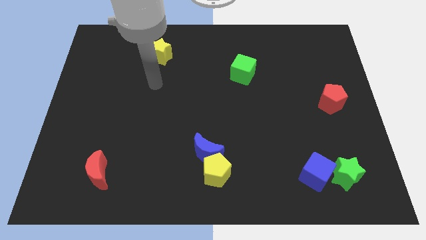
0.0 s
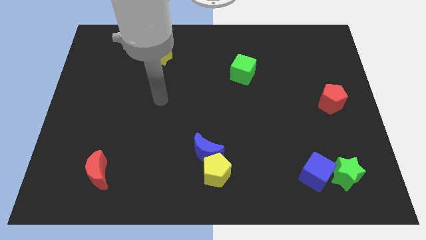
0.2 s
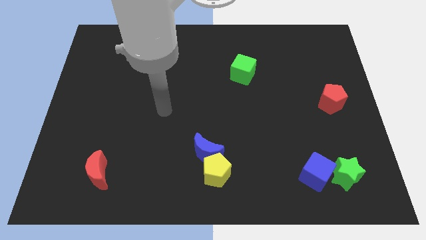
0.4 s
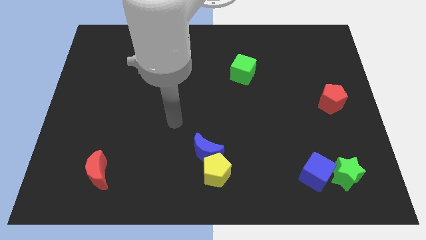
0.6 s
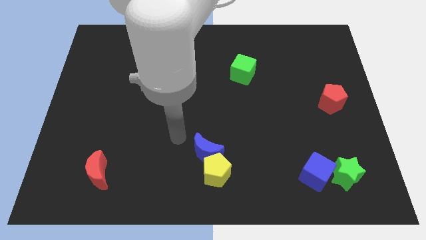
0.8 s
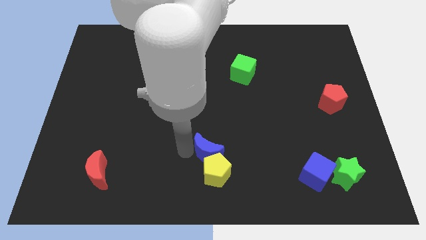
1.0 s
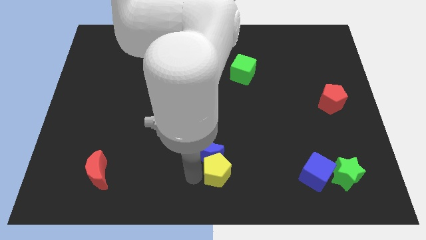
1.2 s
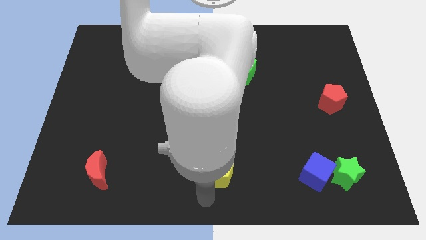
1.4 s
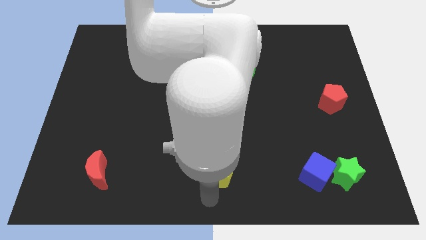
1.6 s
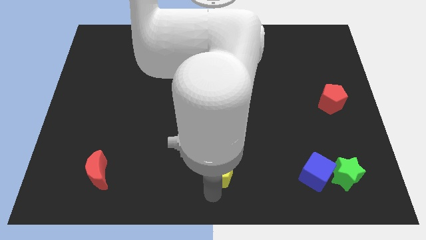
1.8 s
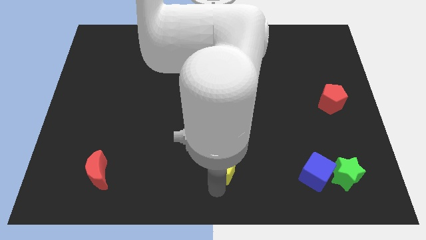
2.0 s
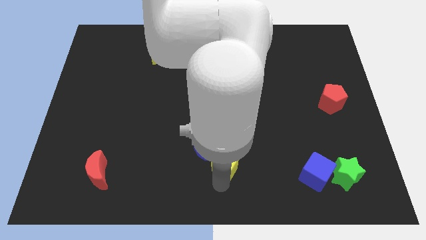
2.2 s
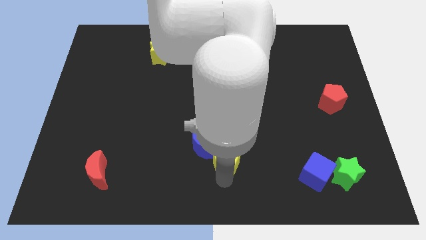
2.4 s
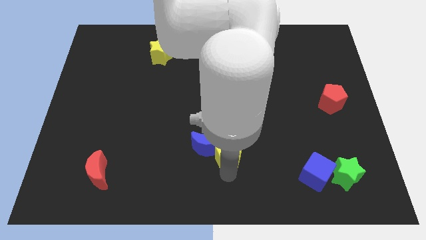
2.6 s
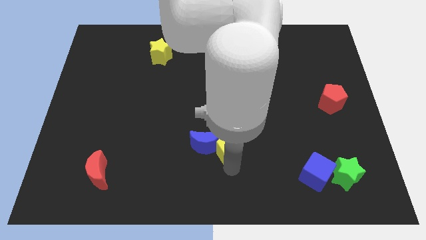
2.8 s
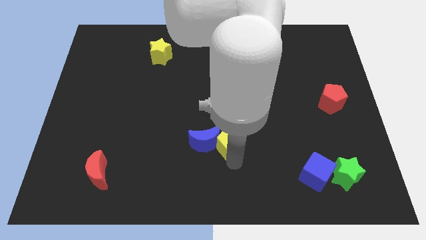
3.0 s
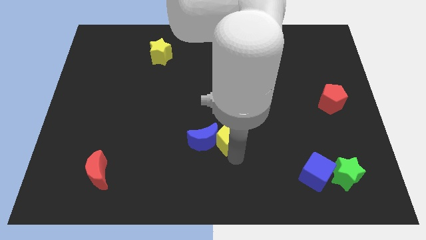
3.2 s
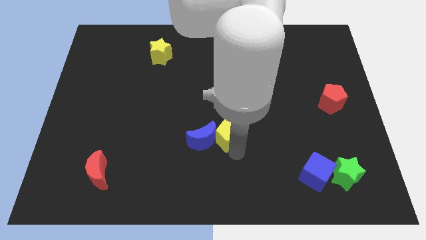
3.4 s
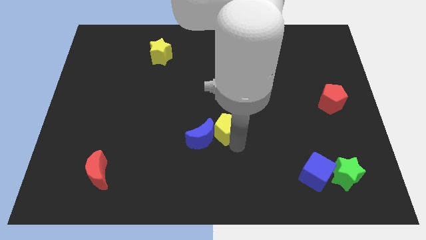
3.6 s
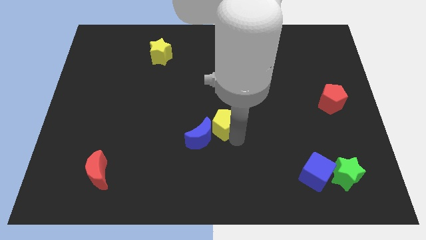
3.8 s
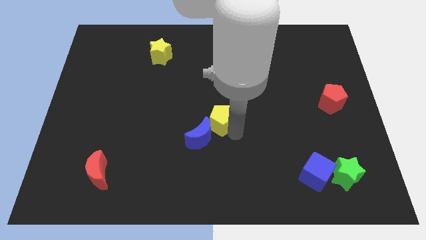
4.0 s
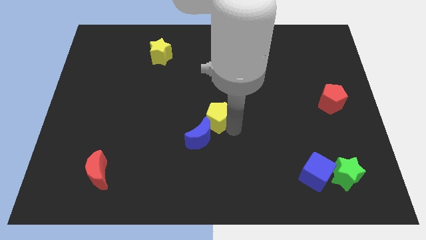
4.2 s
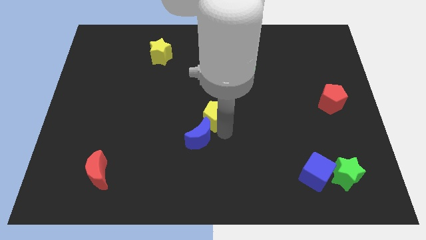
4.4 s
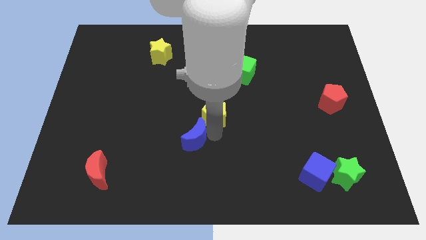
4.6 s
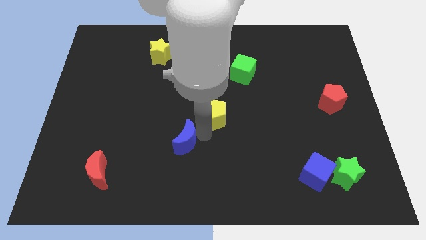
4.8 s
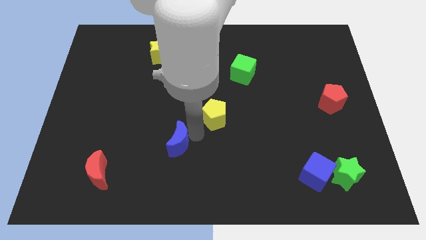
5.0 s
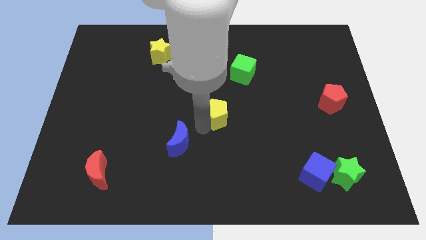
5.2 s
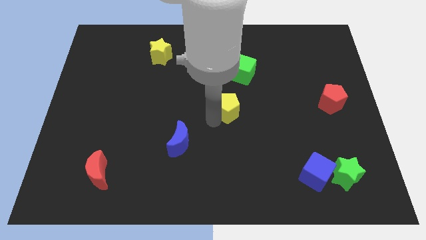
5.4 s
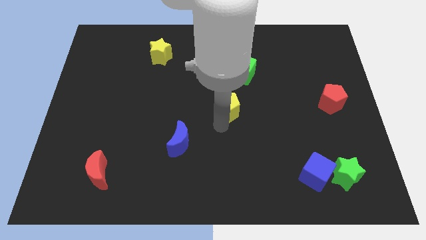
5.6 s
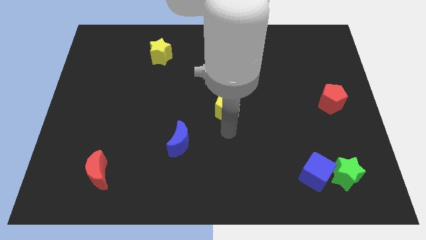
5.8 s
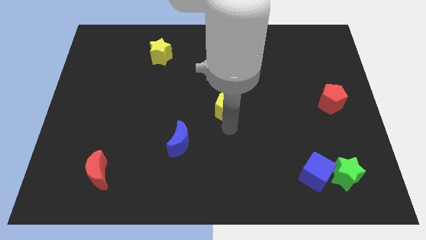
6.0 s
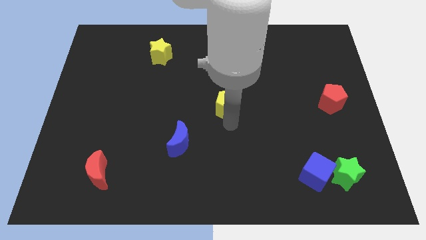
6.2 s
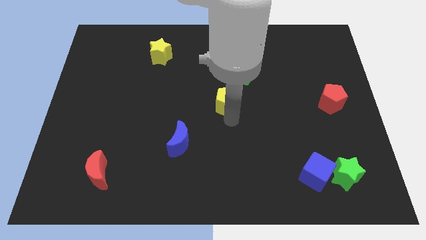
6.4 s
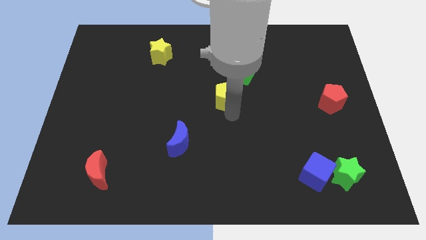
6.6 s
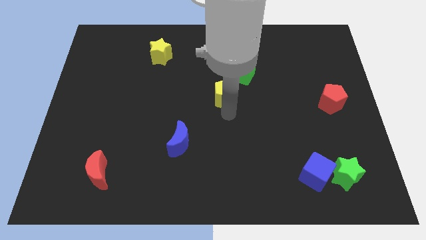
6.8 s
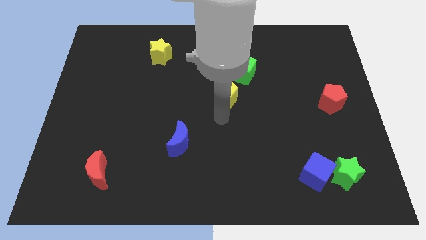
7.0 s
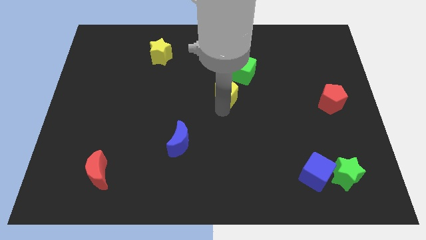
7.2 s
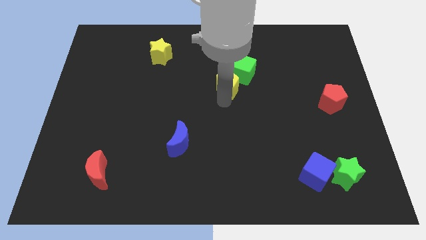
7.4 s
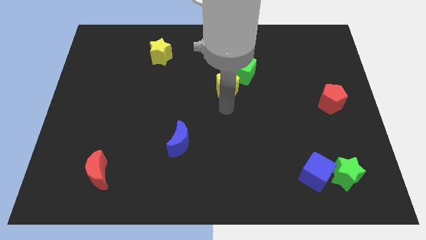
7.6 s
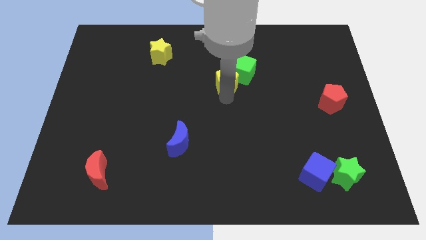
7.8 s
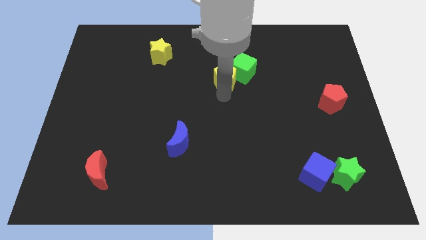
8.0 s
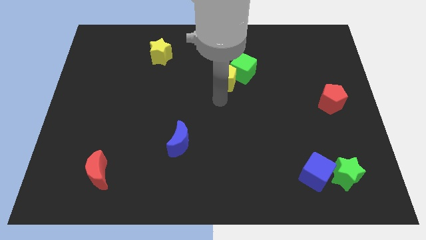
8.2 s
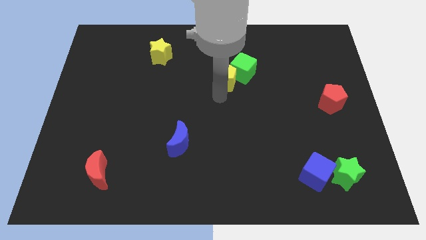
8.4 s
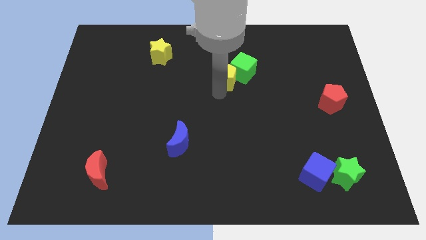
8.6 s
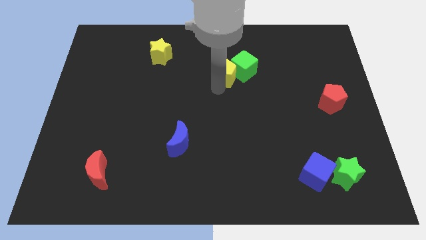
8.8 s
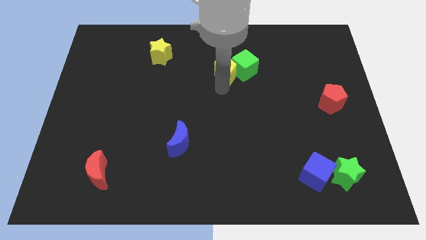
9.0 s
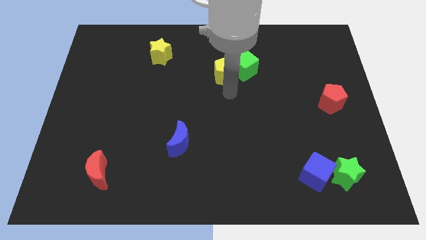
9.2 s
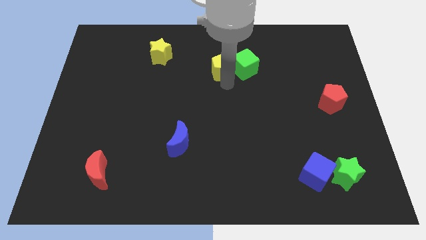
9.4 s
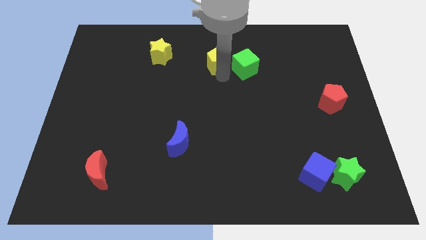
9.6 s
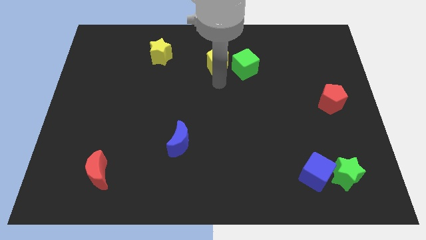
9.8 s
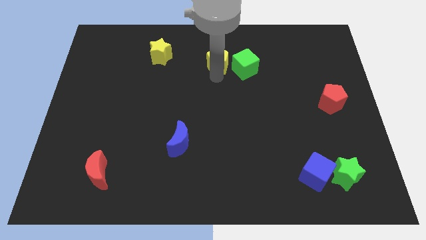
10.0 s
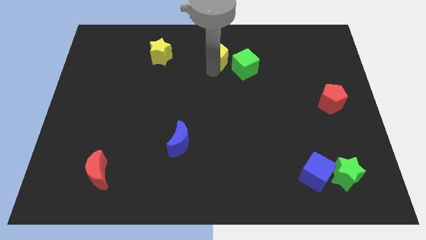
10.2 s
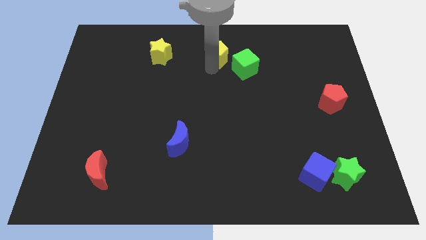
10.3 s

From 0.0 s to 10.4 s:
put the yellow pentagon to the top

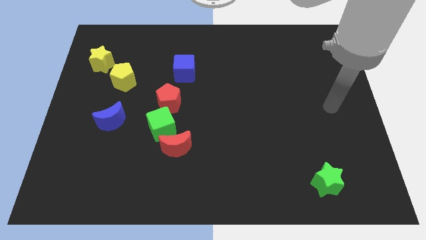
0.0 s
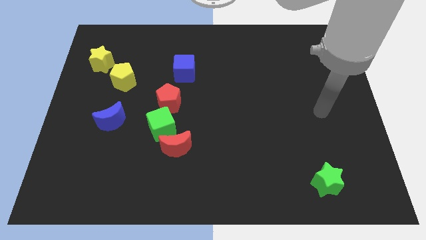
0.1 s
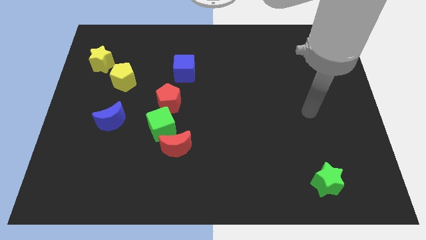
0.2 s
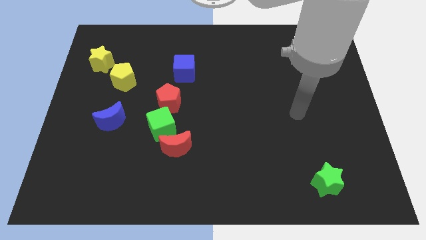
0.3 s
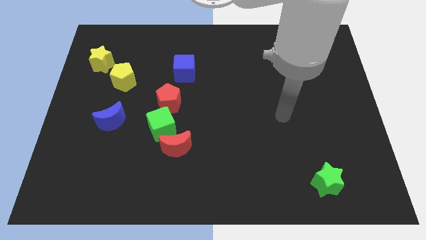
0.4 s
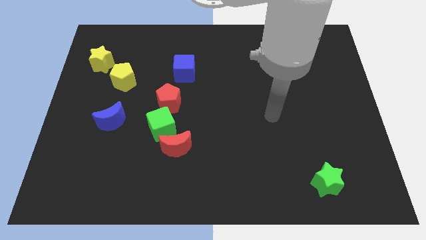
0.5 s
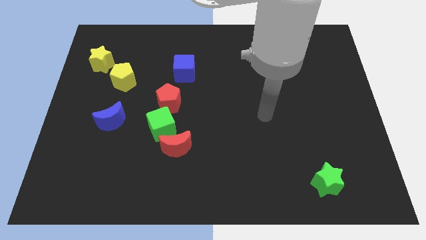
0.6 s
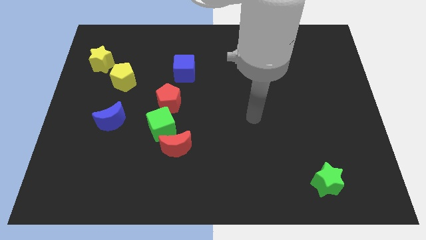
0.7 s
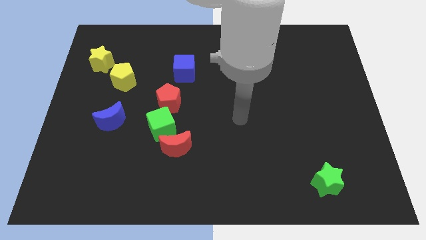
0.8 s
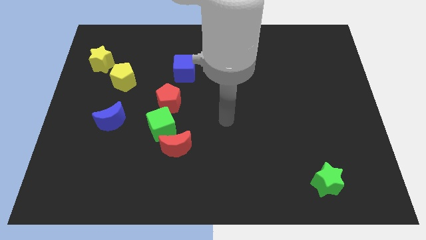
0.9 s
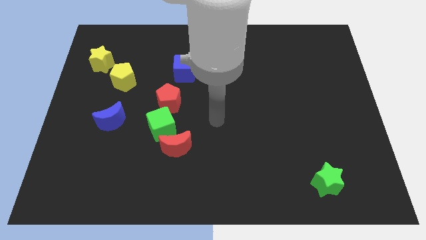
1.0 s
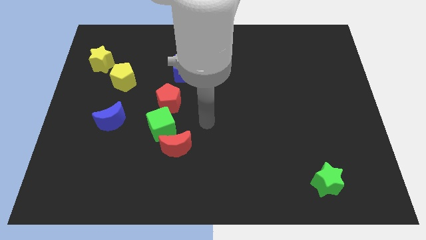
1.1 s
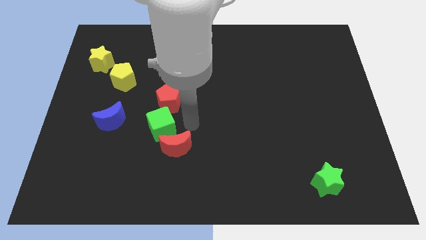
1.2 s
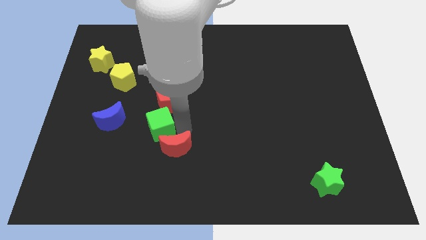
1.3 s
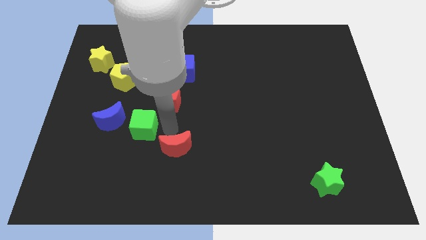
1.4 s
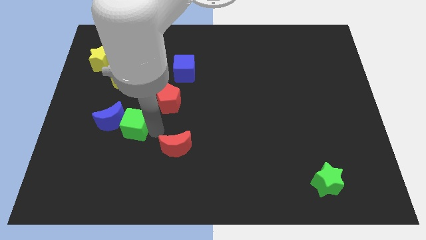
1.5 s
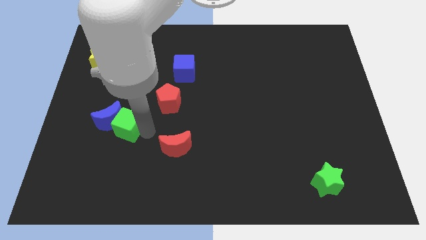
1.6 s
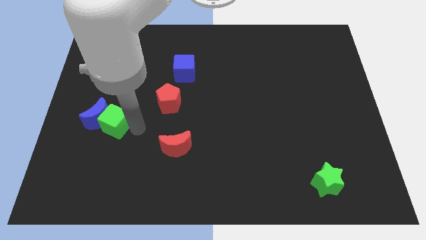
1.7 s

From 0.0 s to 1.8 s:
put the blue moon to the center left
